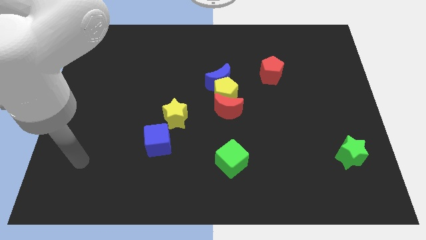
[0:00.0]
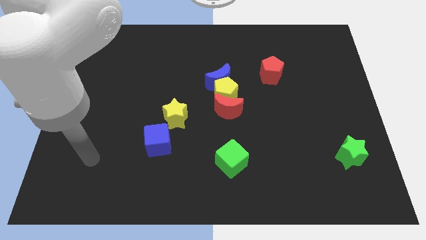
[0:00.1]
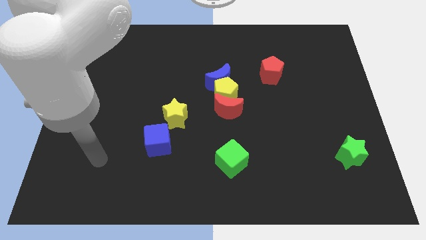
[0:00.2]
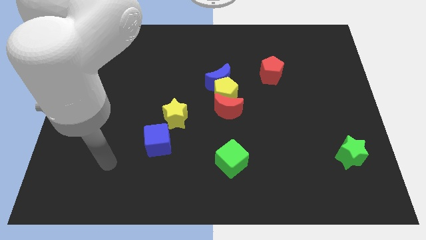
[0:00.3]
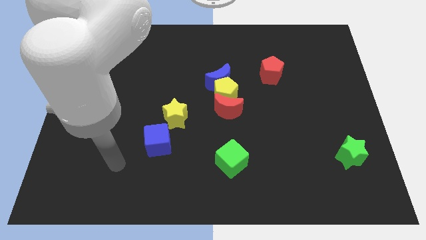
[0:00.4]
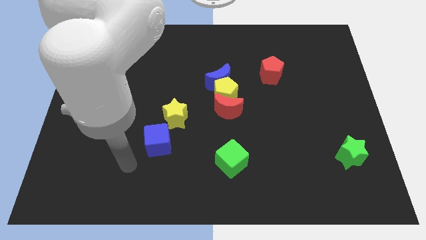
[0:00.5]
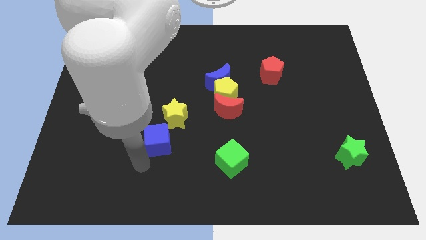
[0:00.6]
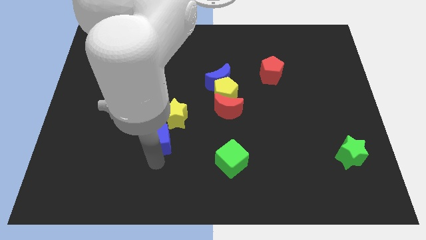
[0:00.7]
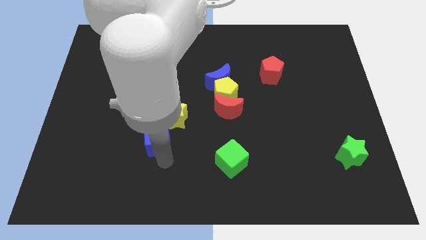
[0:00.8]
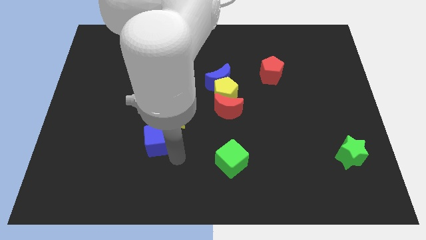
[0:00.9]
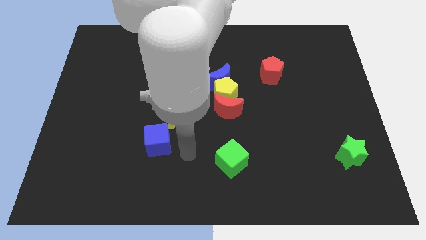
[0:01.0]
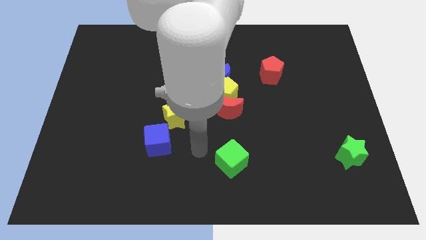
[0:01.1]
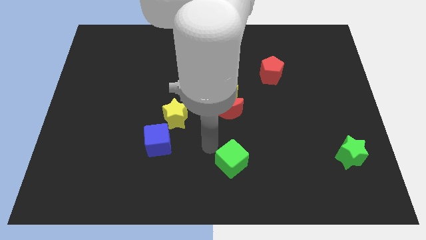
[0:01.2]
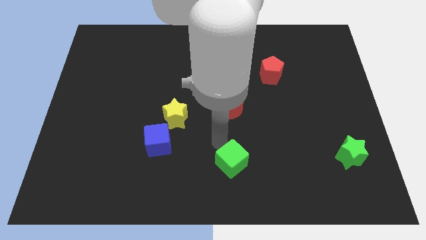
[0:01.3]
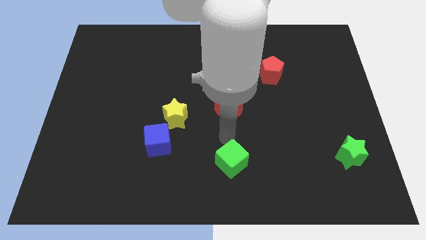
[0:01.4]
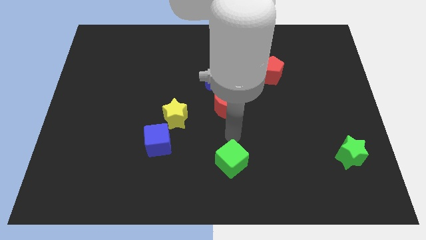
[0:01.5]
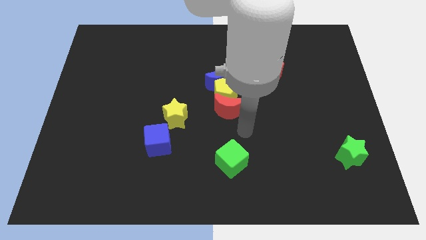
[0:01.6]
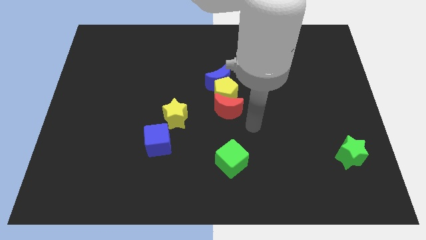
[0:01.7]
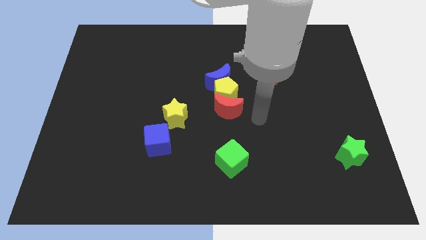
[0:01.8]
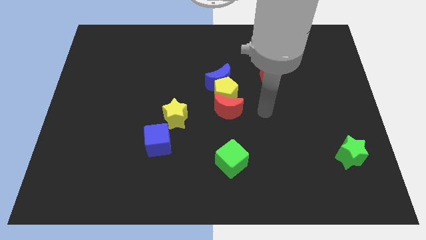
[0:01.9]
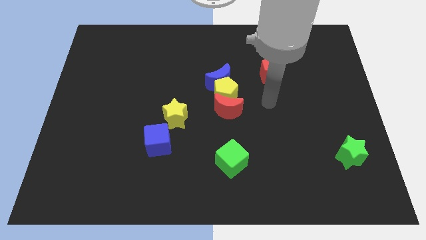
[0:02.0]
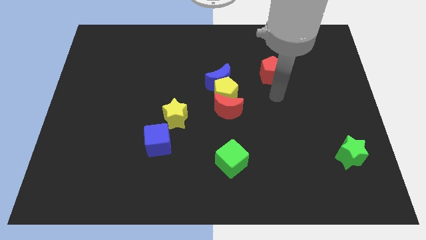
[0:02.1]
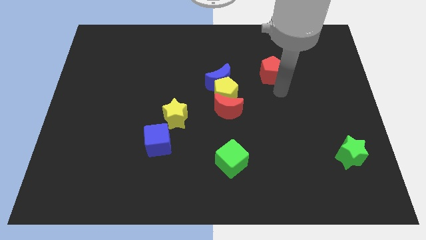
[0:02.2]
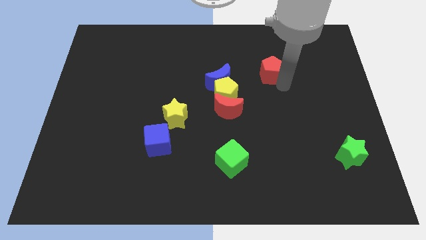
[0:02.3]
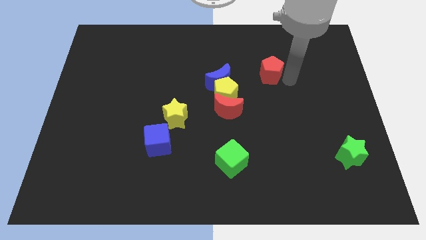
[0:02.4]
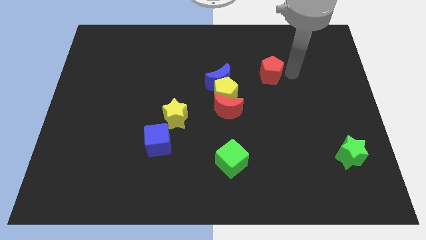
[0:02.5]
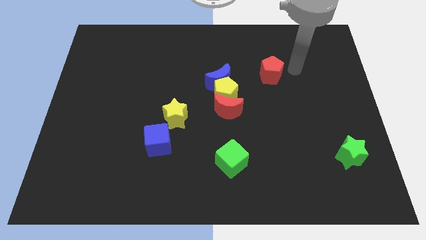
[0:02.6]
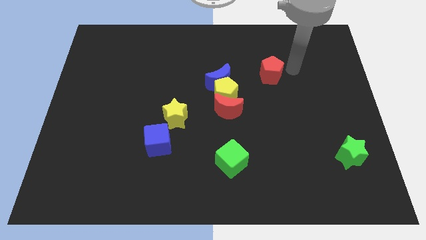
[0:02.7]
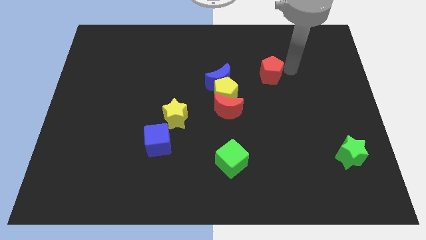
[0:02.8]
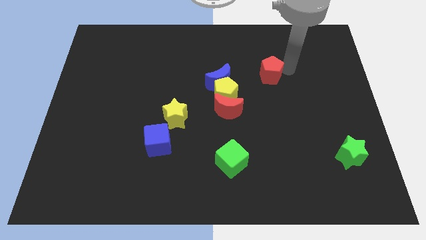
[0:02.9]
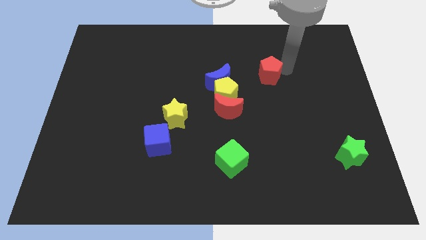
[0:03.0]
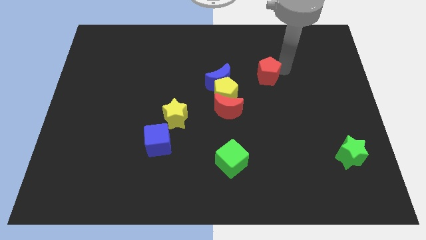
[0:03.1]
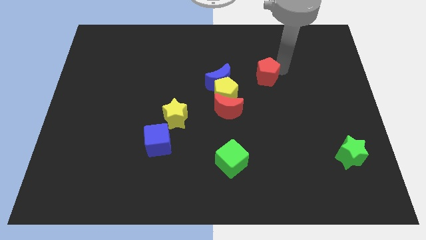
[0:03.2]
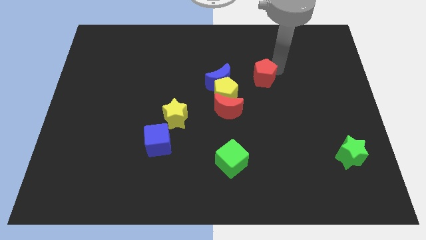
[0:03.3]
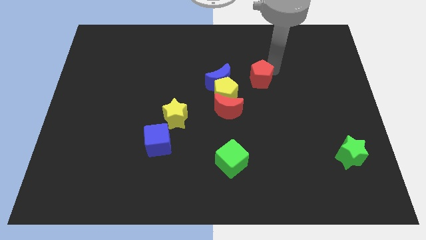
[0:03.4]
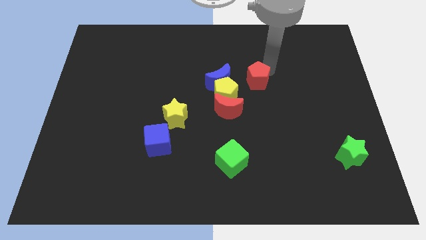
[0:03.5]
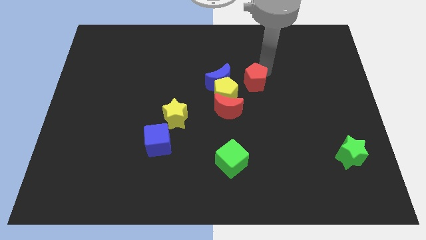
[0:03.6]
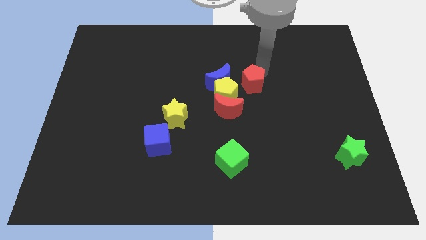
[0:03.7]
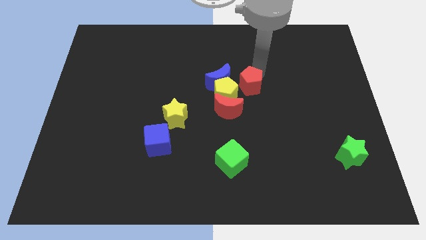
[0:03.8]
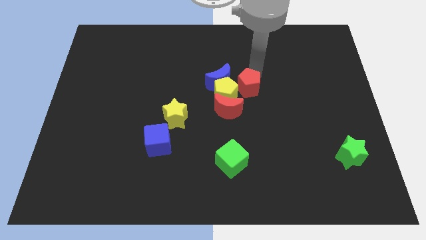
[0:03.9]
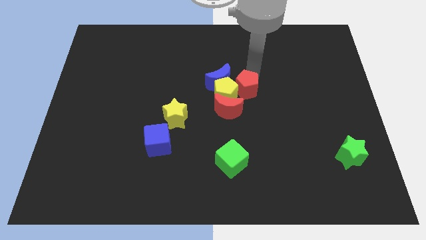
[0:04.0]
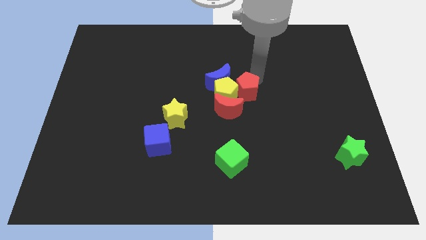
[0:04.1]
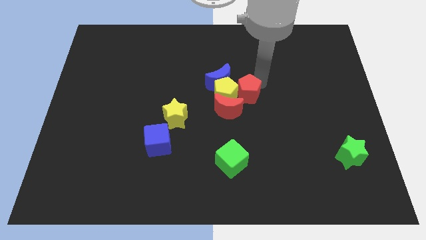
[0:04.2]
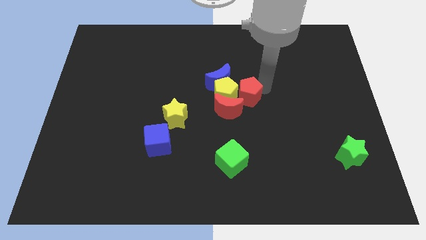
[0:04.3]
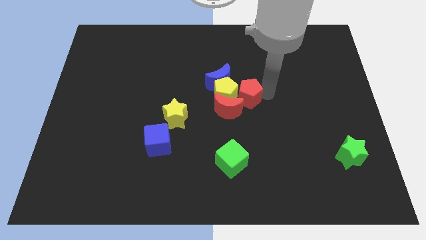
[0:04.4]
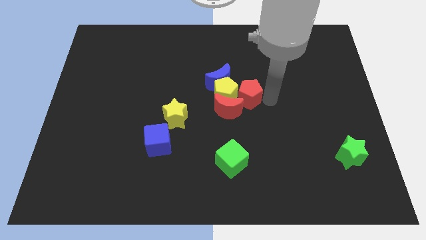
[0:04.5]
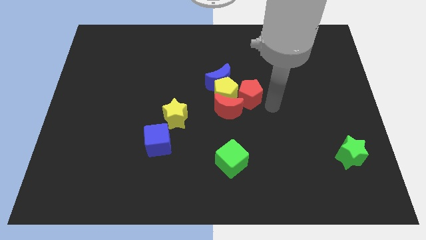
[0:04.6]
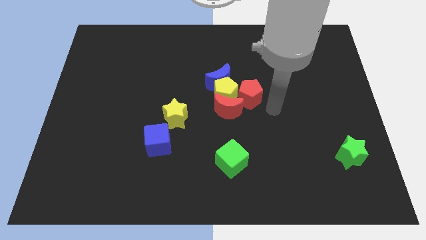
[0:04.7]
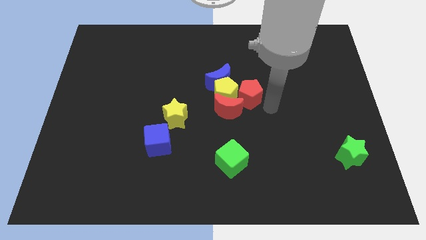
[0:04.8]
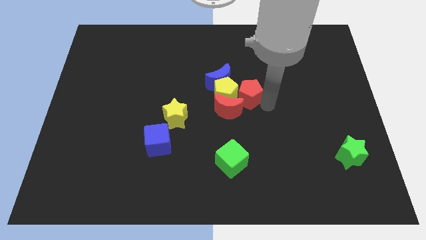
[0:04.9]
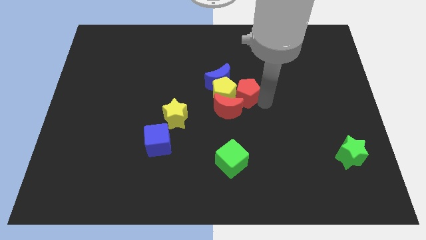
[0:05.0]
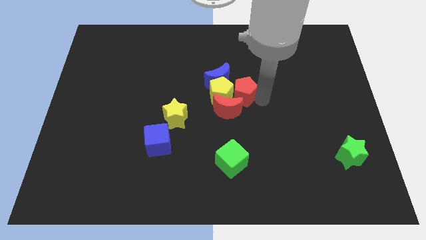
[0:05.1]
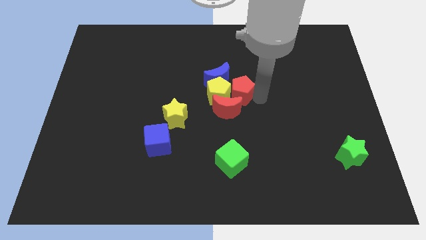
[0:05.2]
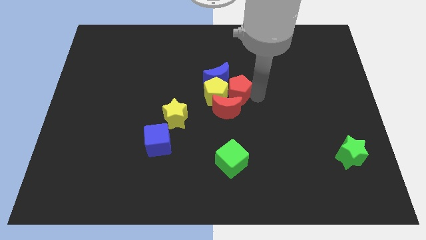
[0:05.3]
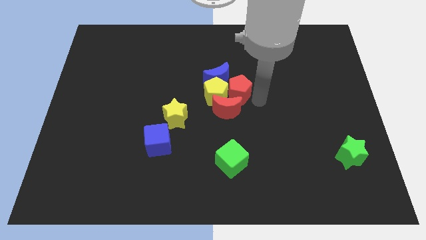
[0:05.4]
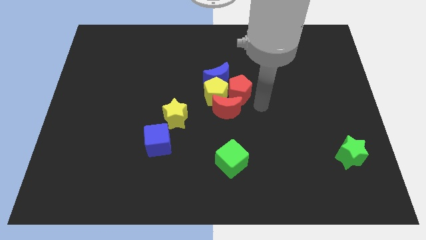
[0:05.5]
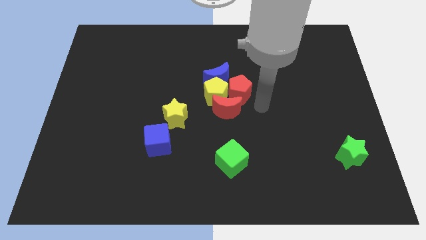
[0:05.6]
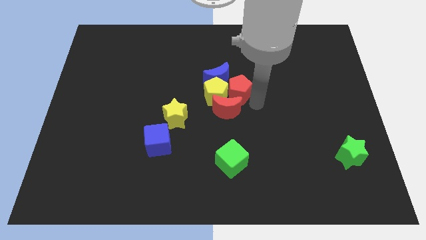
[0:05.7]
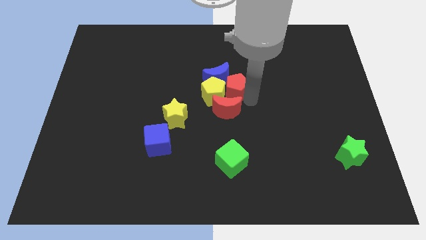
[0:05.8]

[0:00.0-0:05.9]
move the red pentagon next to the blue moon

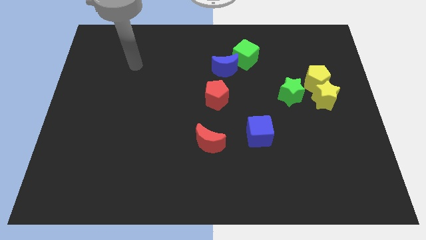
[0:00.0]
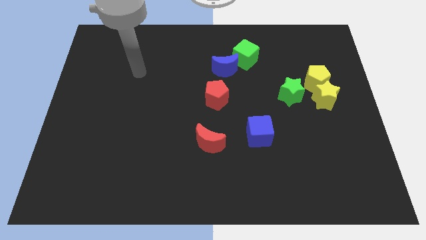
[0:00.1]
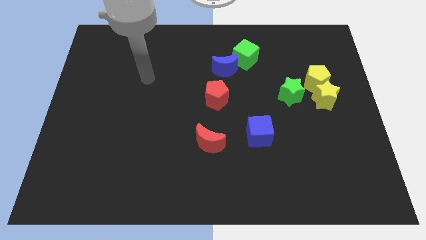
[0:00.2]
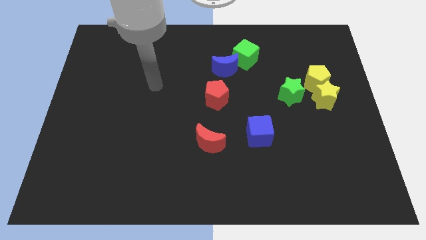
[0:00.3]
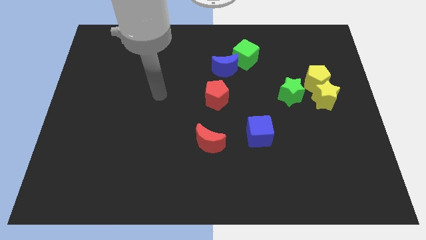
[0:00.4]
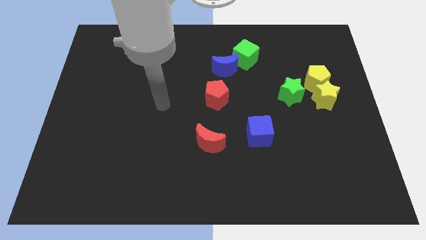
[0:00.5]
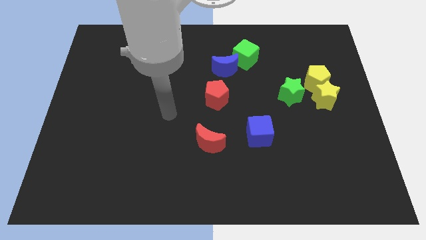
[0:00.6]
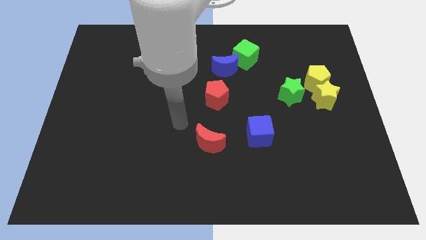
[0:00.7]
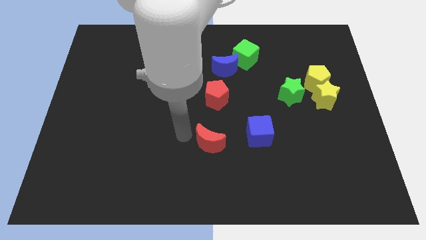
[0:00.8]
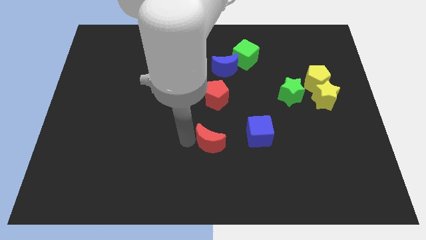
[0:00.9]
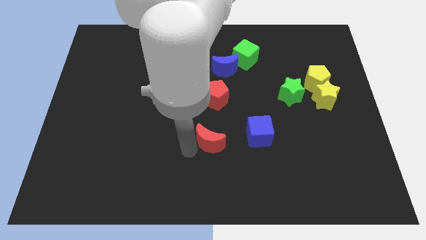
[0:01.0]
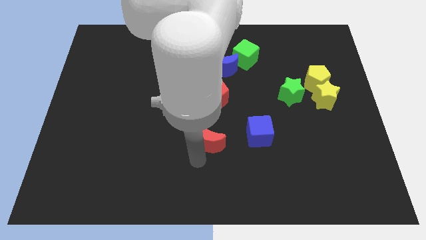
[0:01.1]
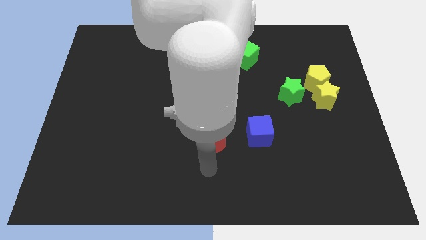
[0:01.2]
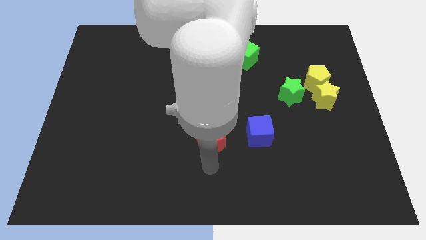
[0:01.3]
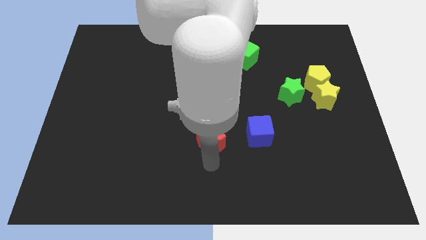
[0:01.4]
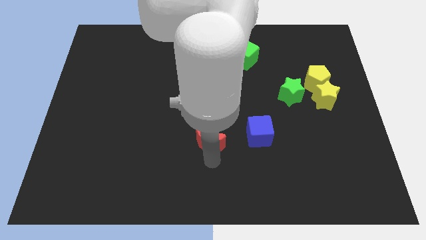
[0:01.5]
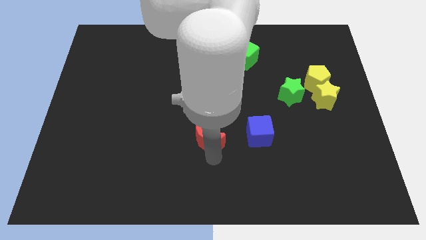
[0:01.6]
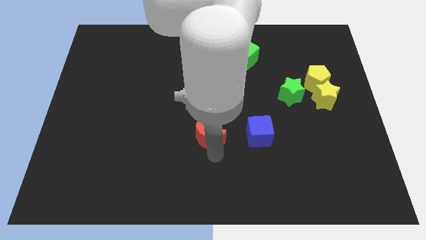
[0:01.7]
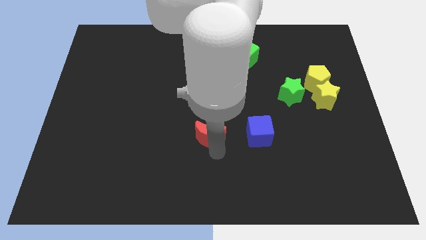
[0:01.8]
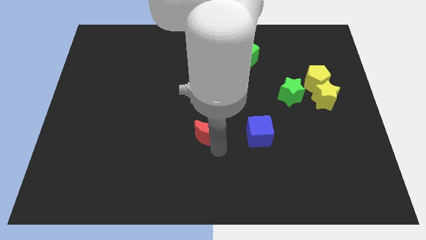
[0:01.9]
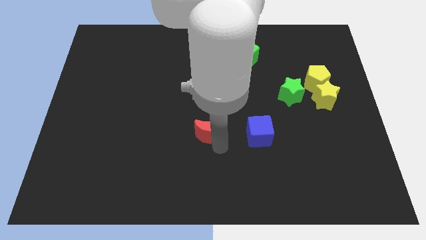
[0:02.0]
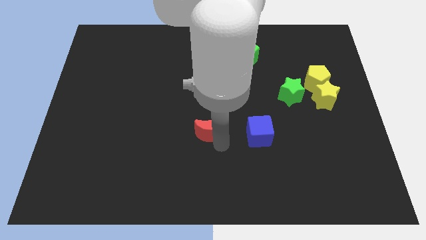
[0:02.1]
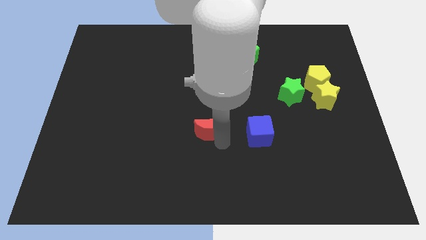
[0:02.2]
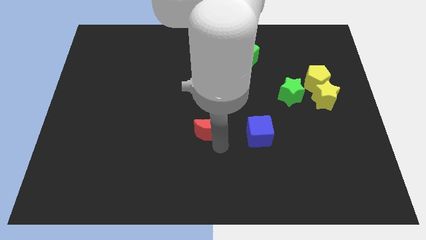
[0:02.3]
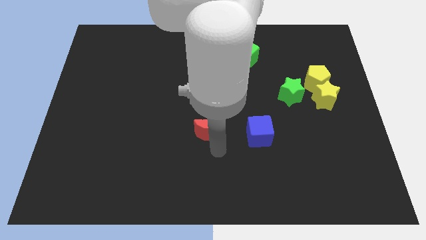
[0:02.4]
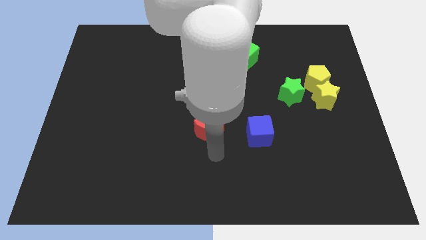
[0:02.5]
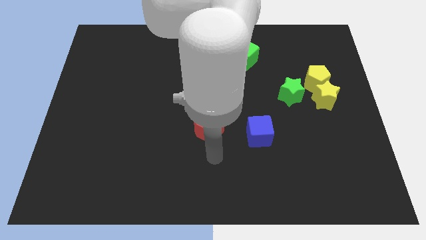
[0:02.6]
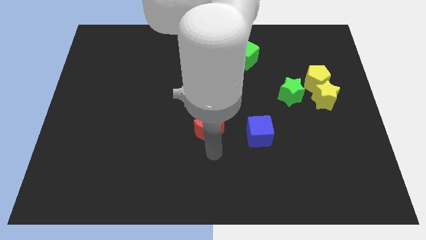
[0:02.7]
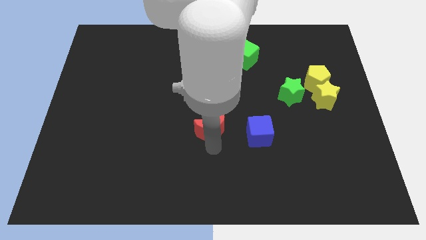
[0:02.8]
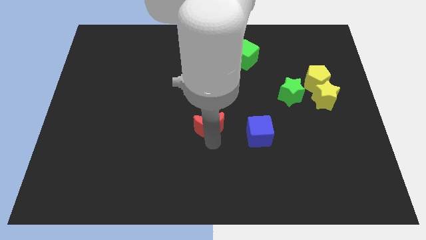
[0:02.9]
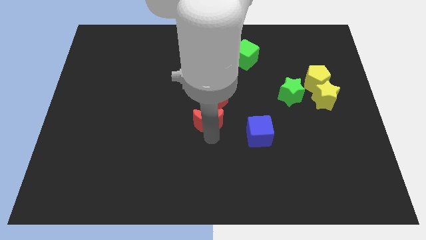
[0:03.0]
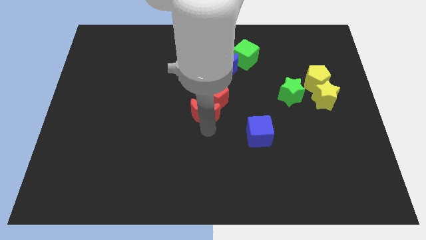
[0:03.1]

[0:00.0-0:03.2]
slide the red moon close to the red pentagon
